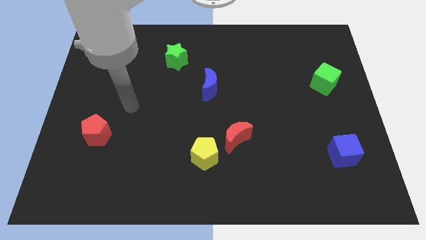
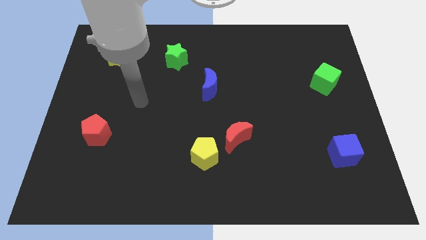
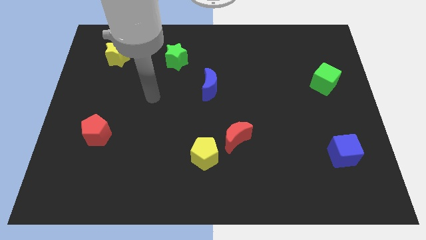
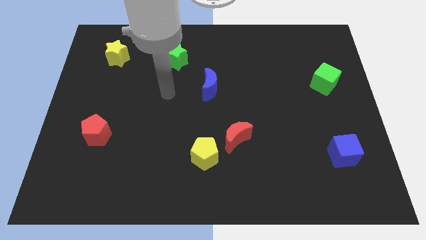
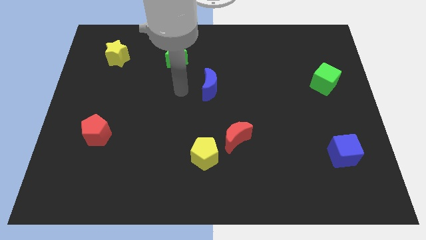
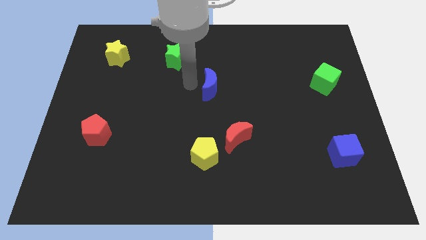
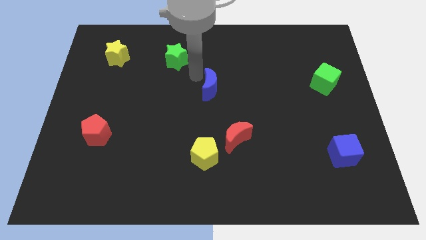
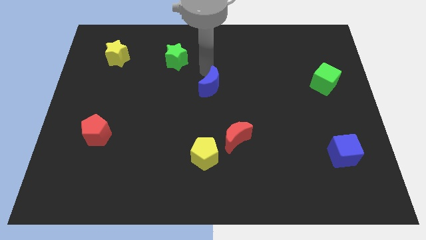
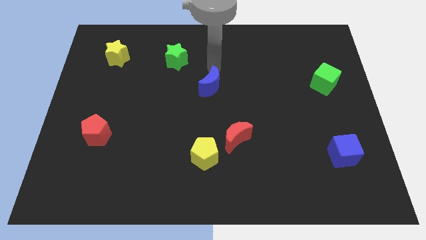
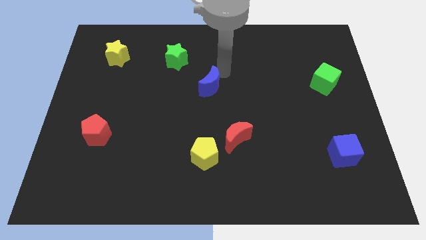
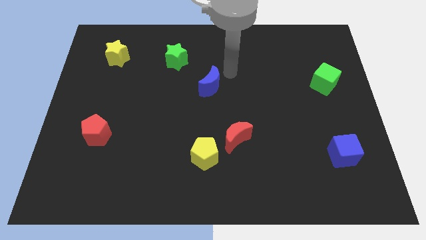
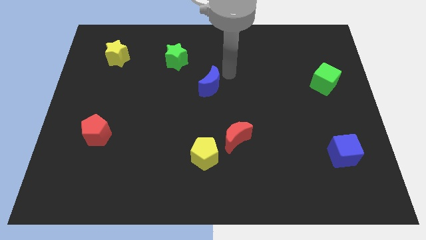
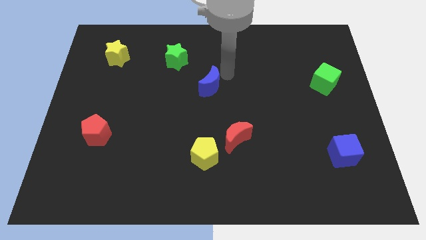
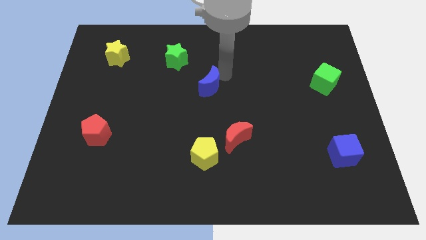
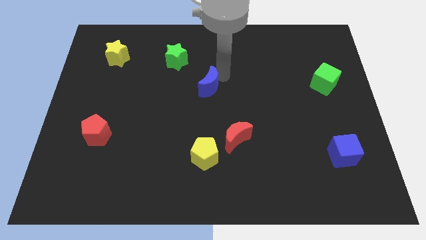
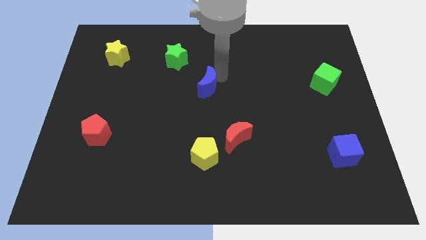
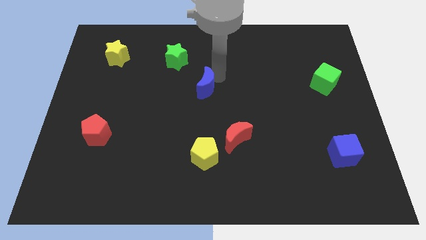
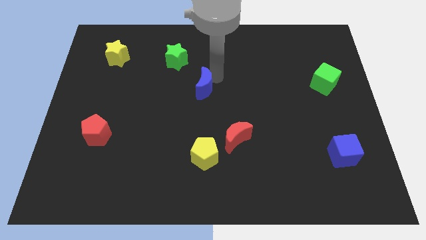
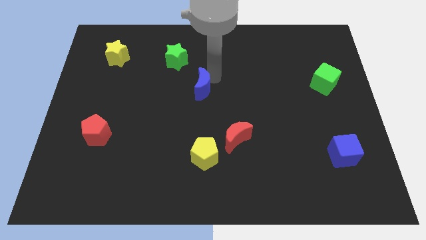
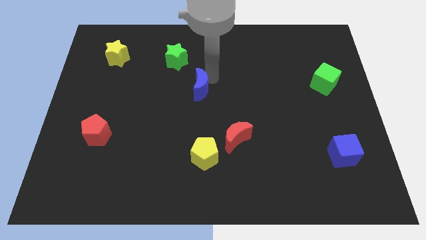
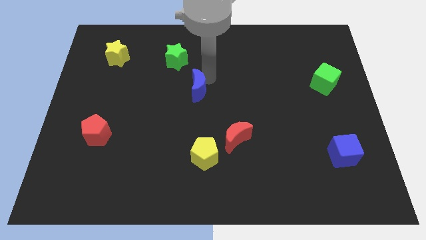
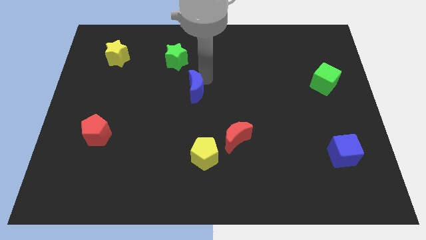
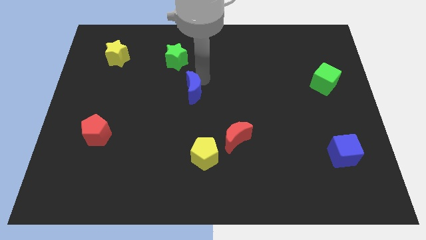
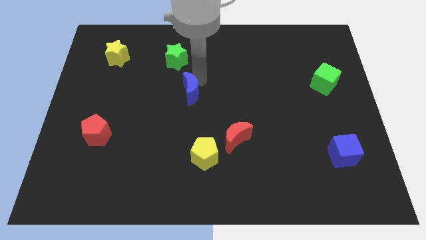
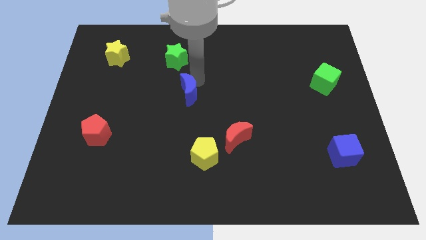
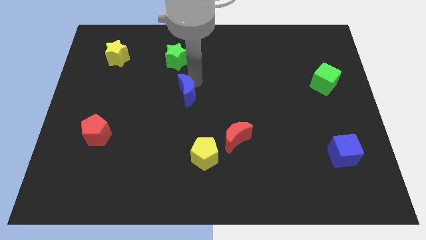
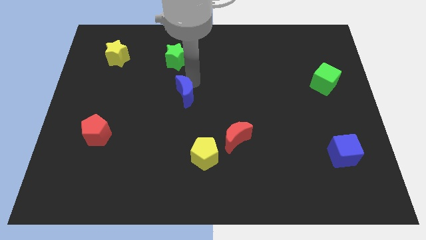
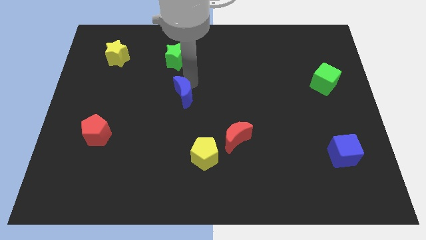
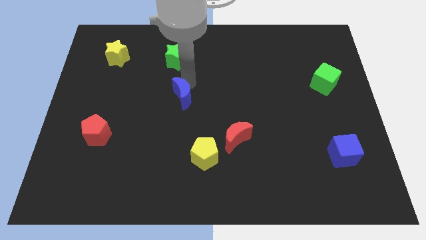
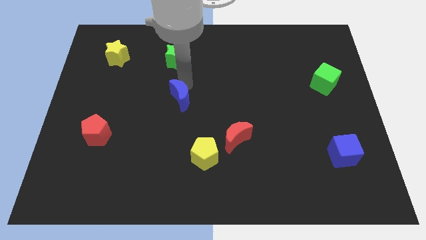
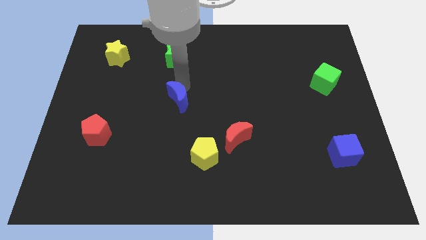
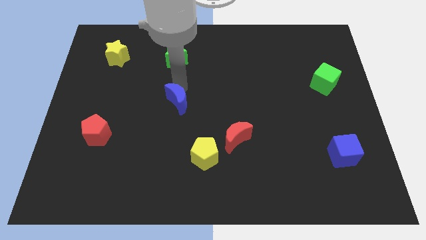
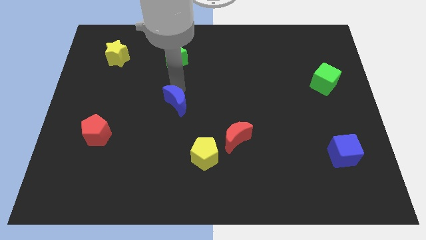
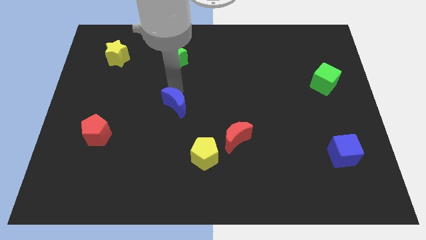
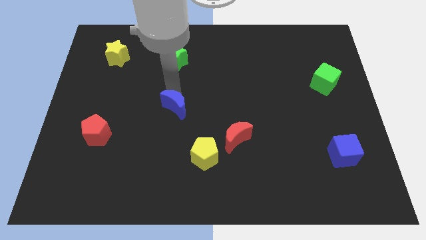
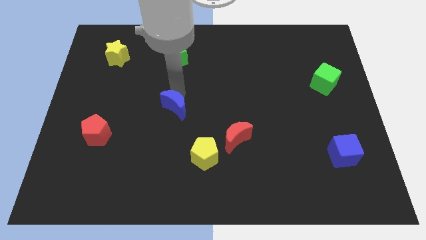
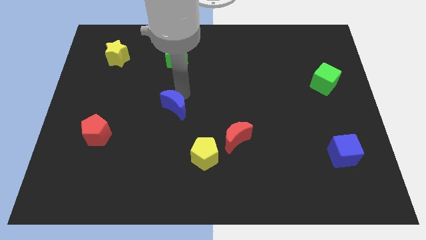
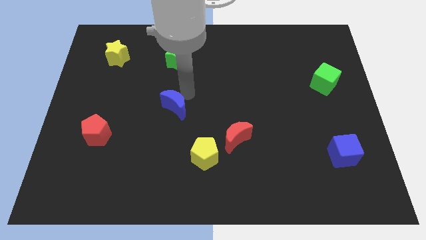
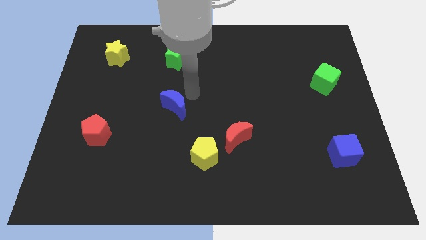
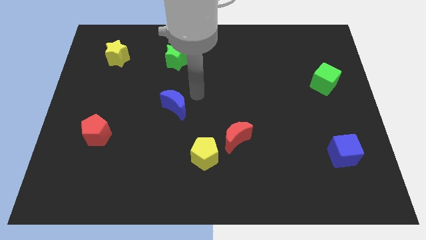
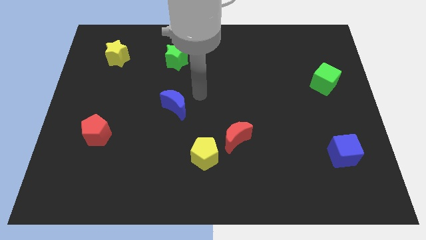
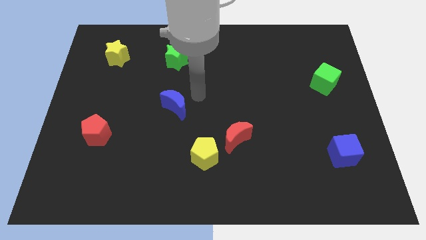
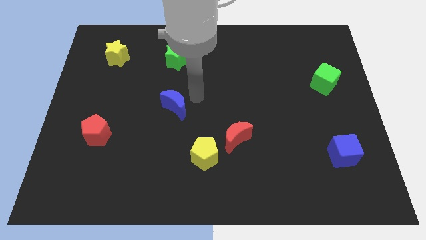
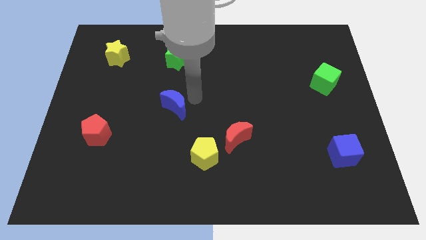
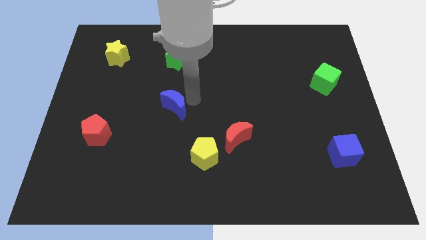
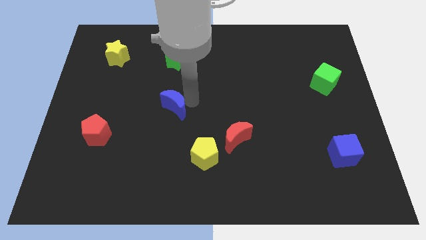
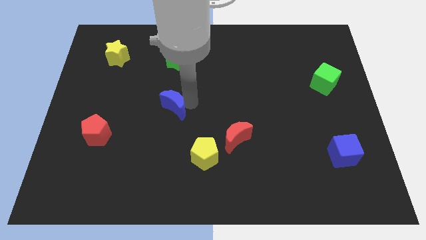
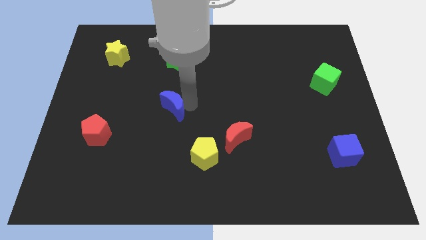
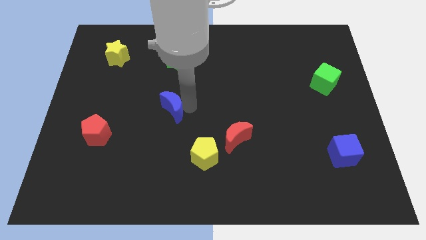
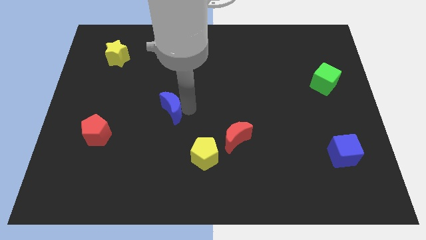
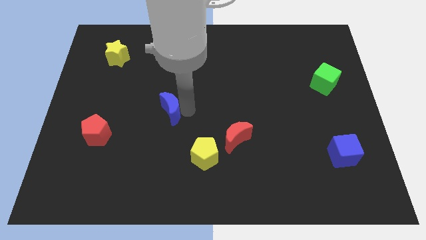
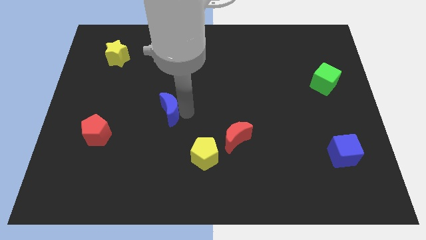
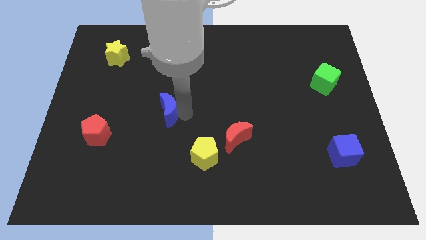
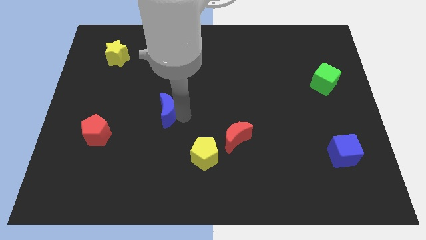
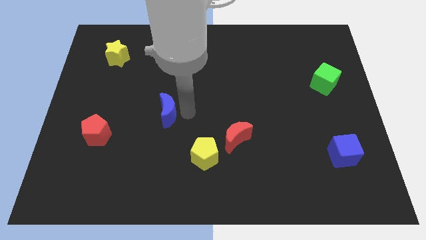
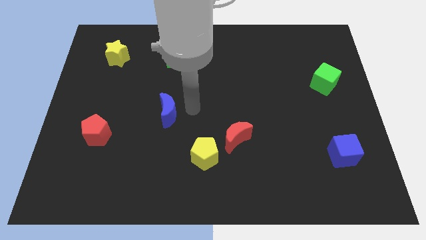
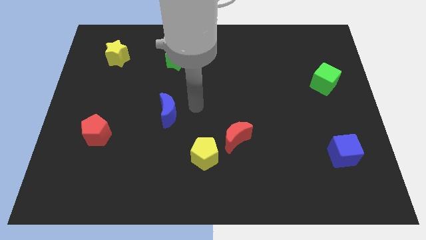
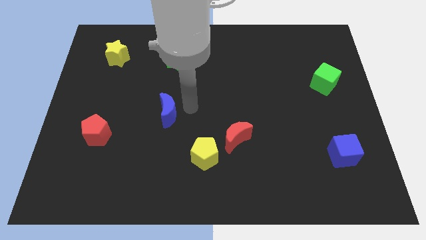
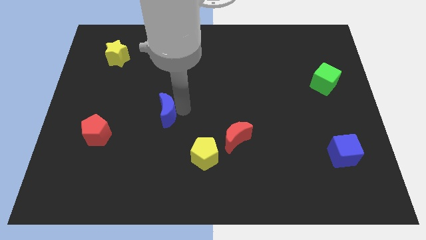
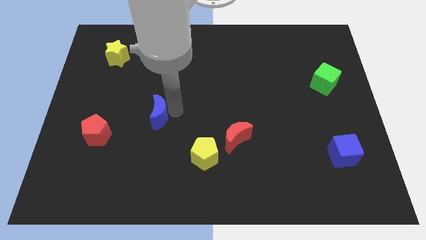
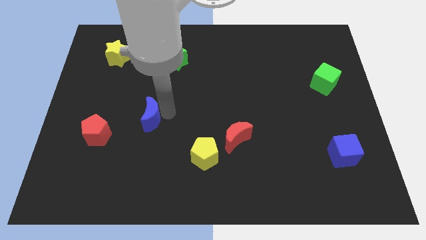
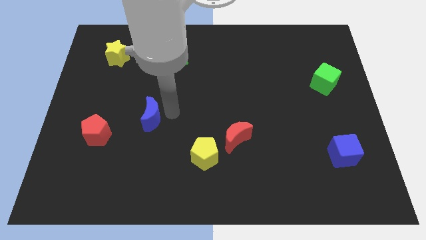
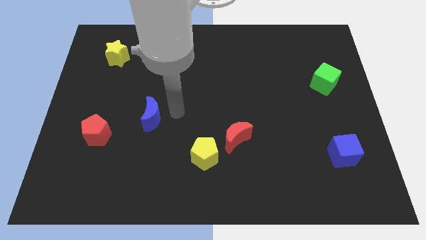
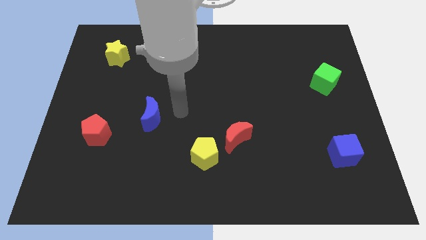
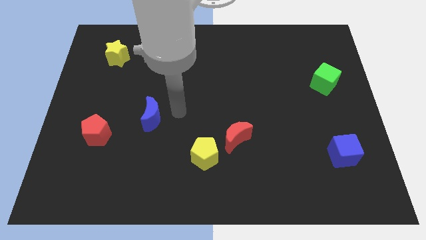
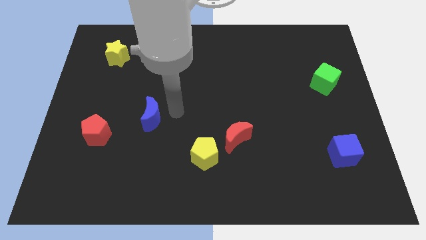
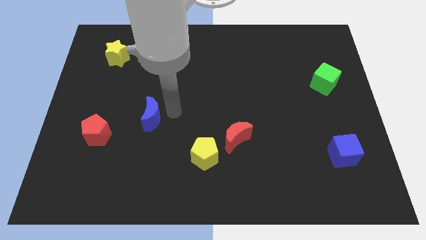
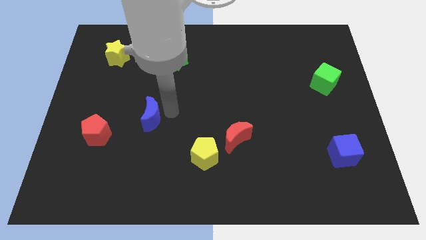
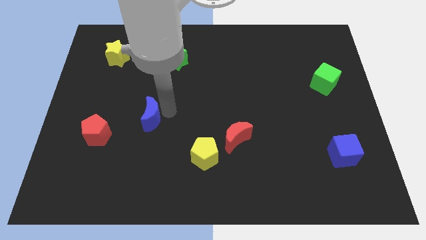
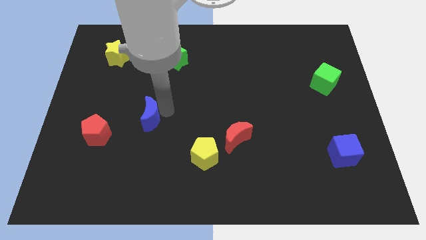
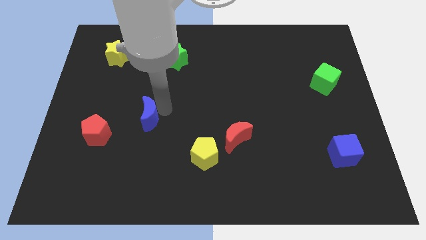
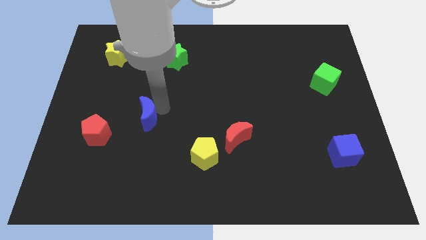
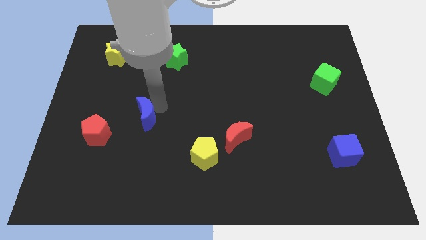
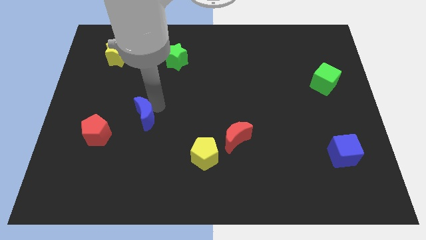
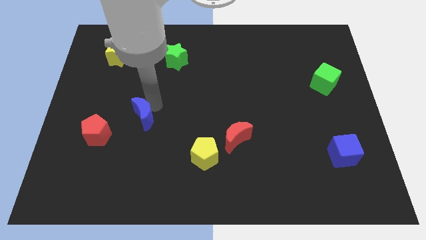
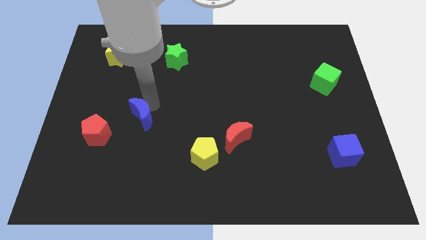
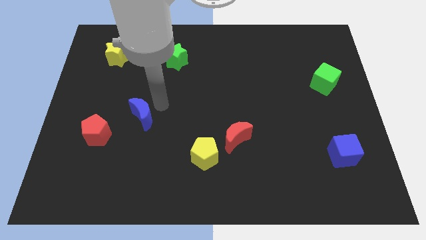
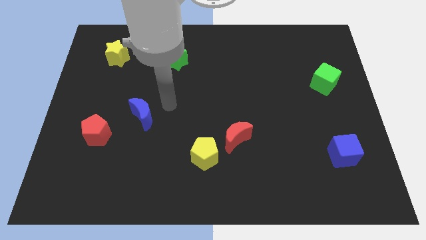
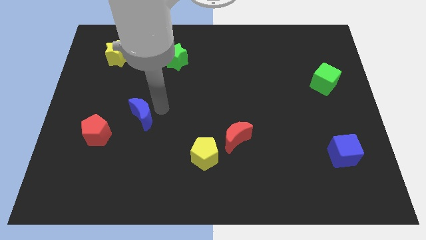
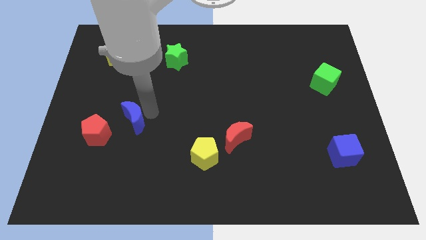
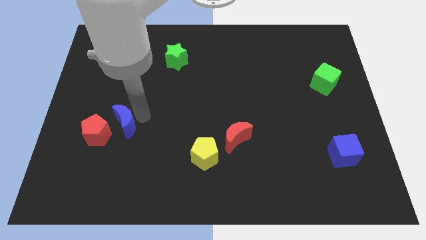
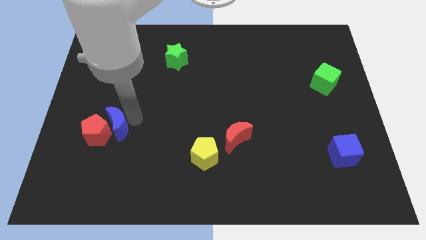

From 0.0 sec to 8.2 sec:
put the blue moon next to the red pentagon
